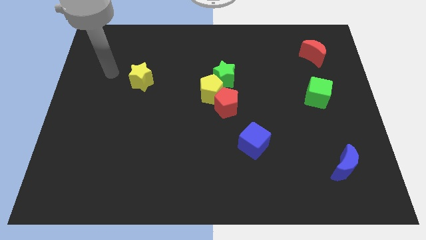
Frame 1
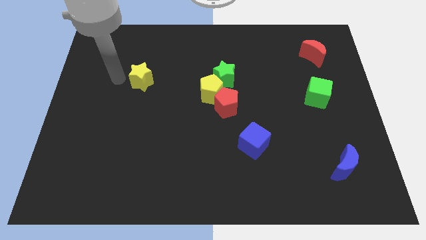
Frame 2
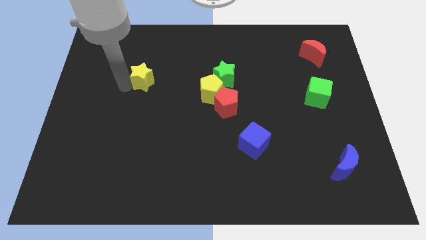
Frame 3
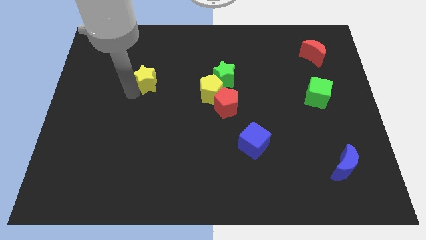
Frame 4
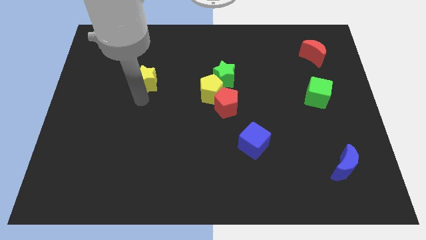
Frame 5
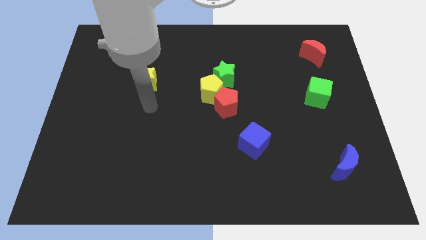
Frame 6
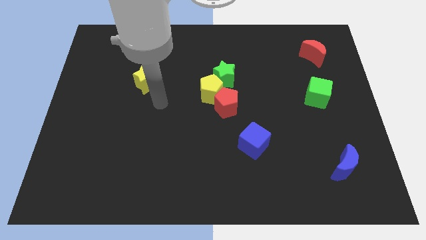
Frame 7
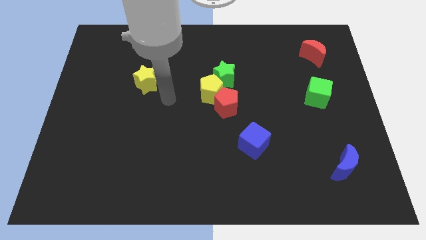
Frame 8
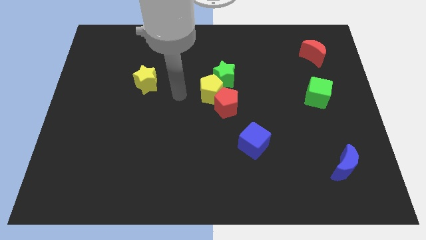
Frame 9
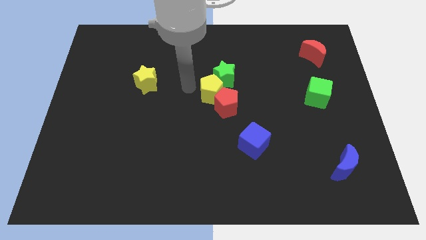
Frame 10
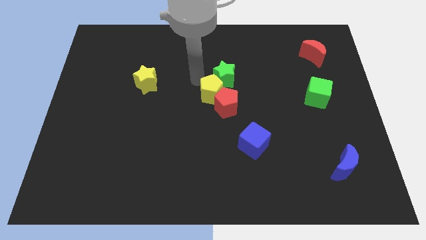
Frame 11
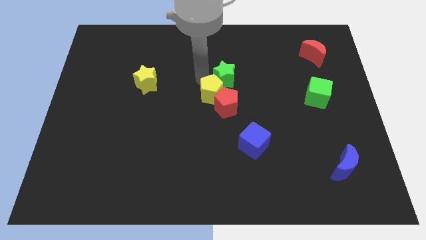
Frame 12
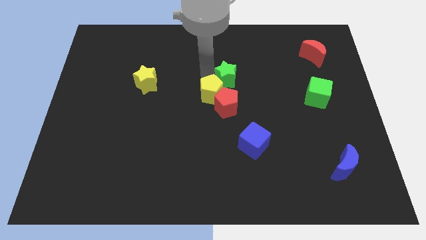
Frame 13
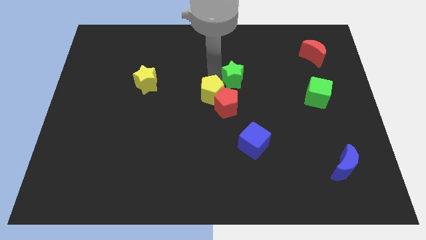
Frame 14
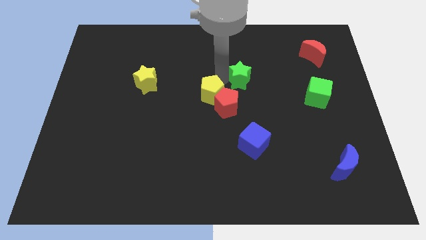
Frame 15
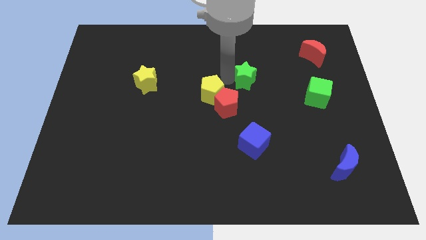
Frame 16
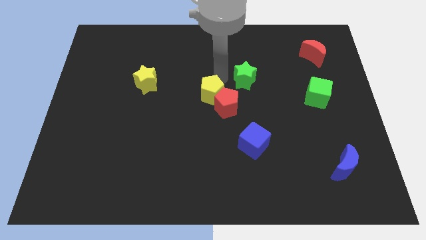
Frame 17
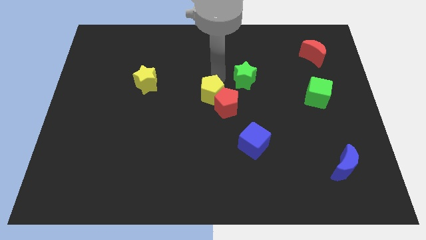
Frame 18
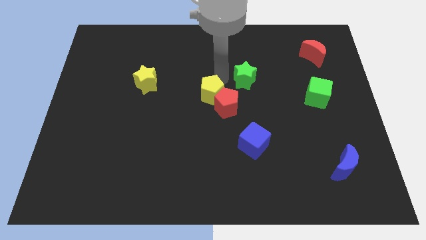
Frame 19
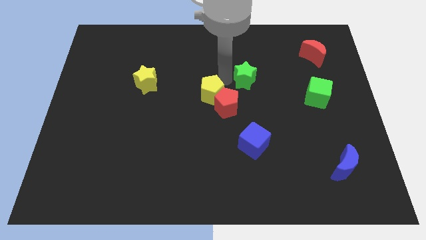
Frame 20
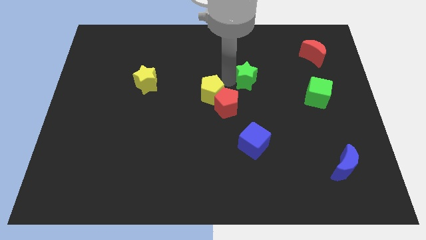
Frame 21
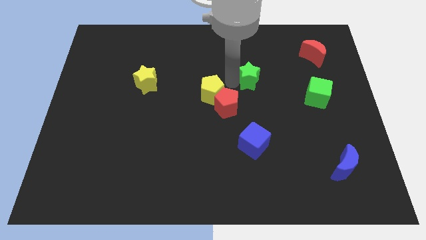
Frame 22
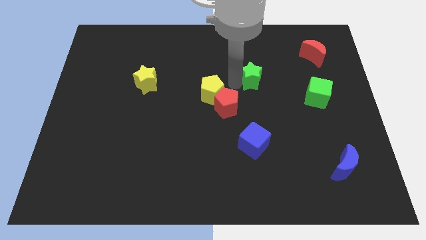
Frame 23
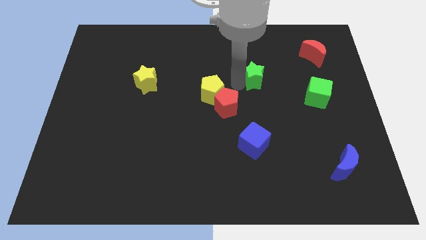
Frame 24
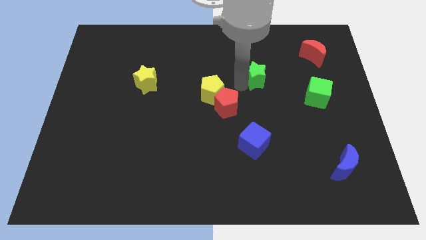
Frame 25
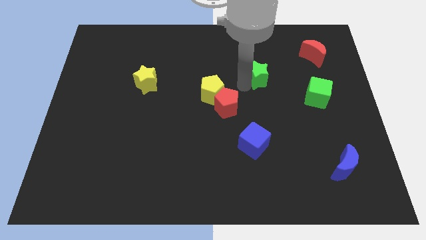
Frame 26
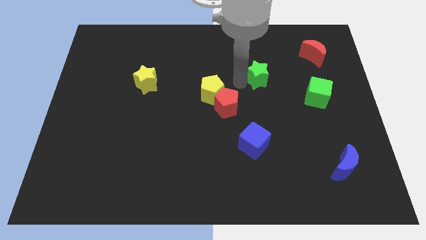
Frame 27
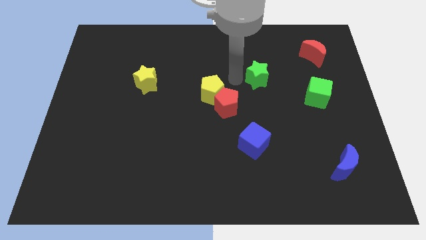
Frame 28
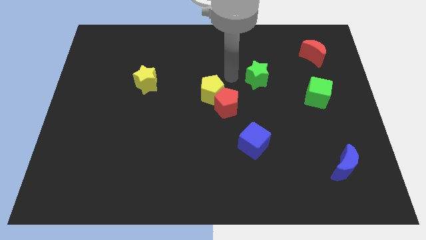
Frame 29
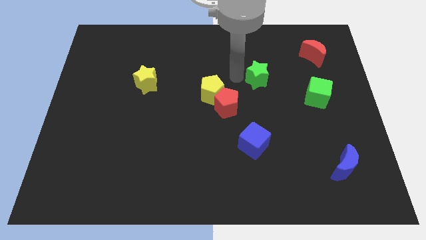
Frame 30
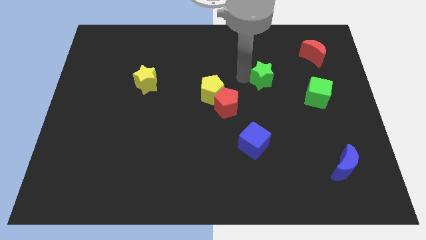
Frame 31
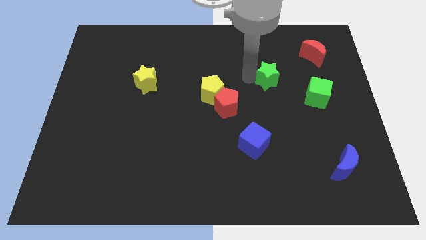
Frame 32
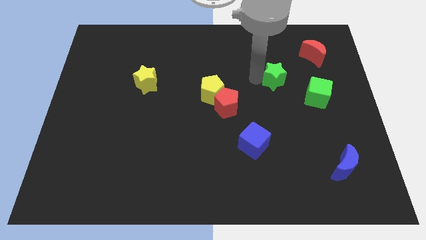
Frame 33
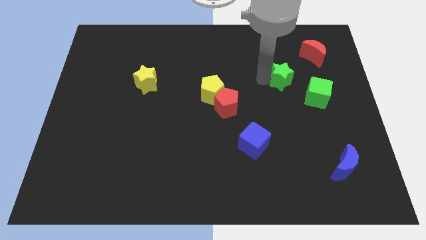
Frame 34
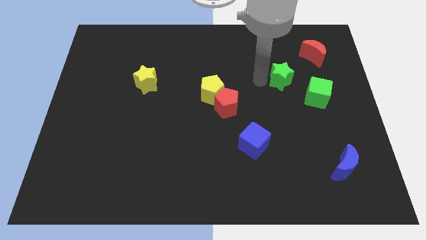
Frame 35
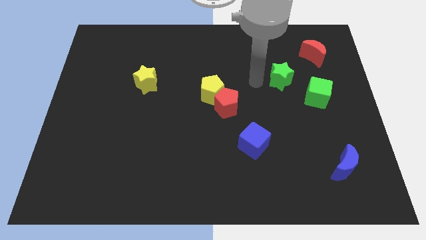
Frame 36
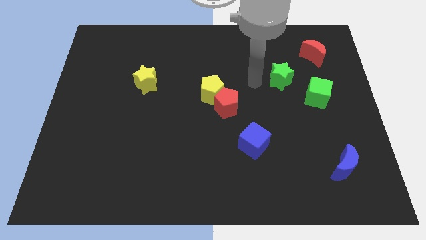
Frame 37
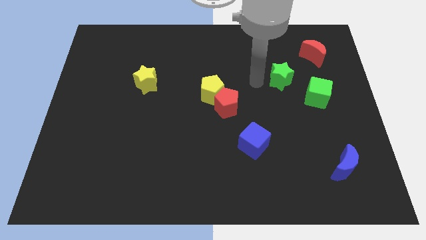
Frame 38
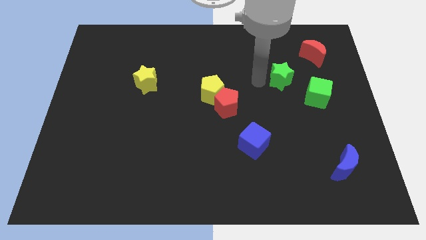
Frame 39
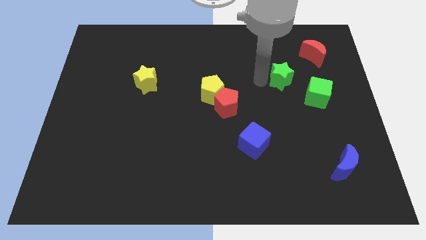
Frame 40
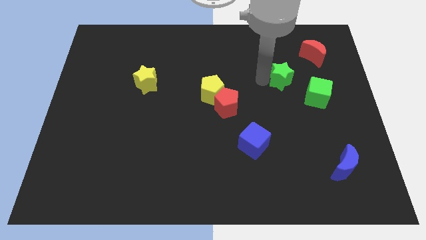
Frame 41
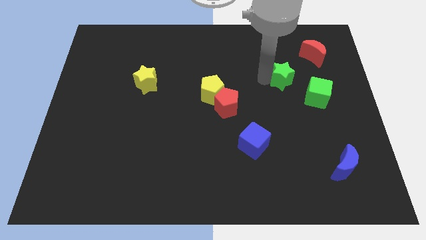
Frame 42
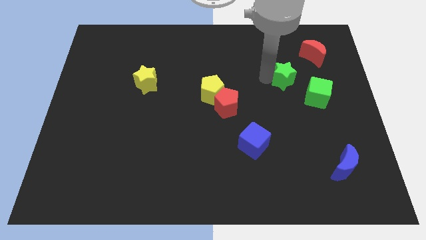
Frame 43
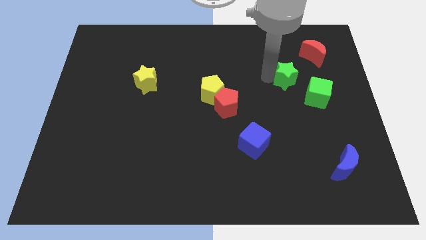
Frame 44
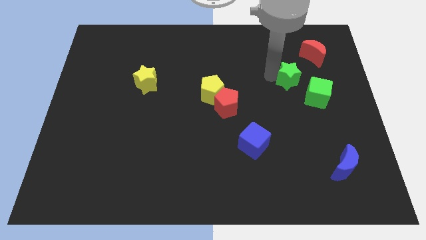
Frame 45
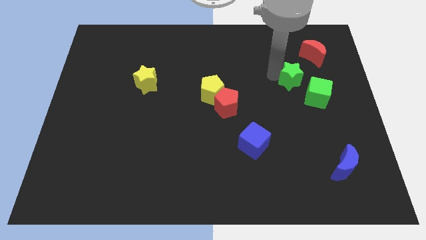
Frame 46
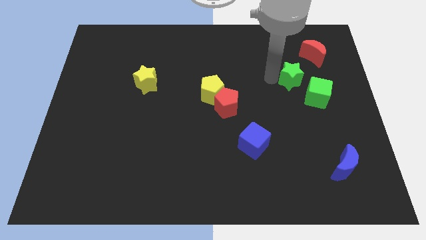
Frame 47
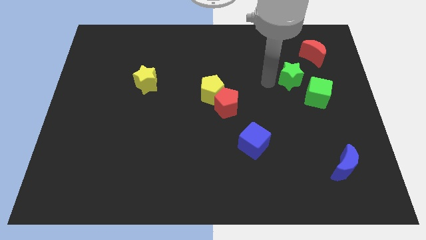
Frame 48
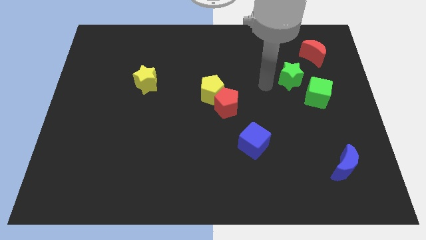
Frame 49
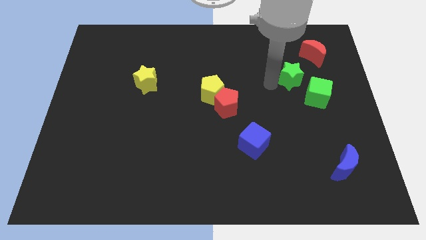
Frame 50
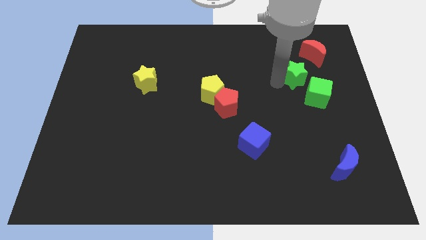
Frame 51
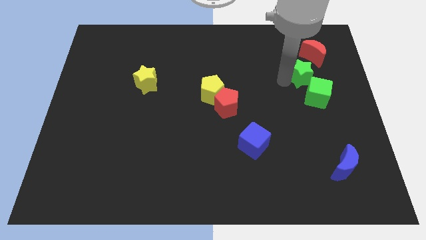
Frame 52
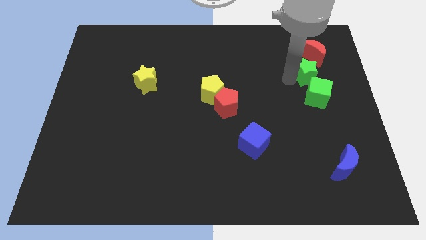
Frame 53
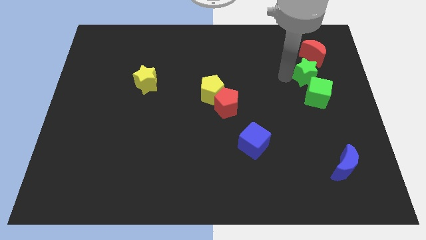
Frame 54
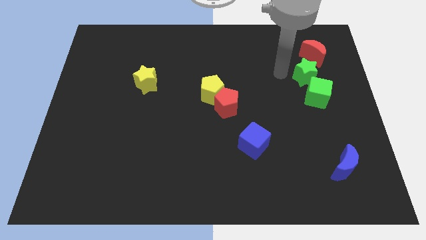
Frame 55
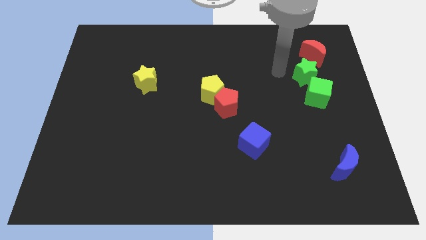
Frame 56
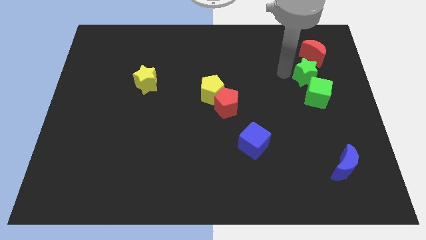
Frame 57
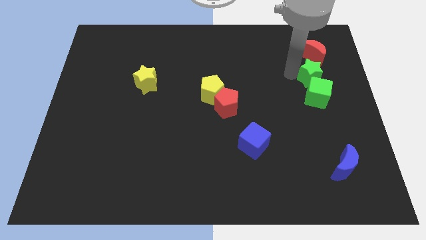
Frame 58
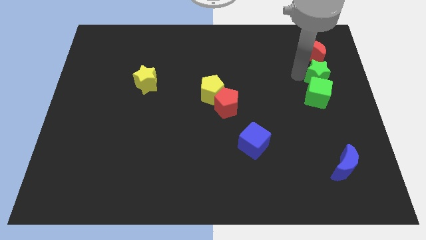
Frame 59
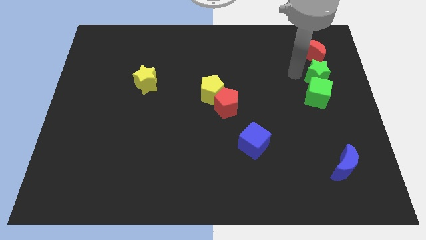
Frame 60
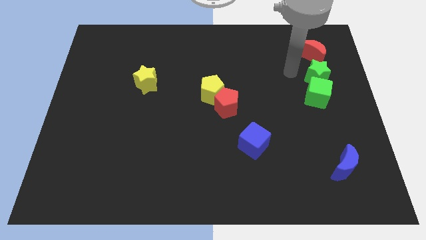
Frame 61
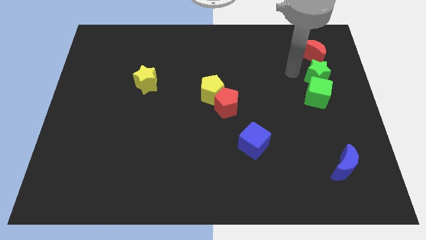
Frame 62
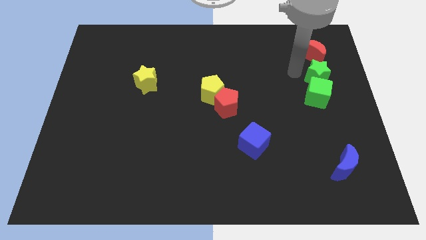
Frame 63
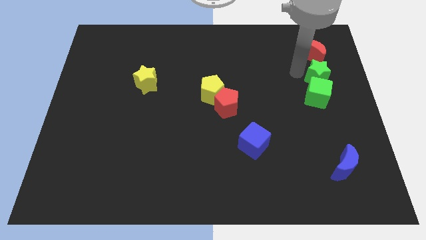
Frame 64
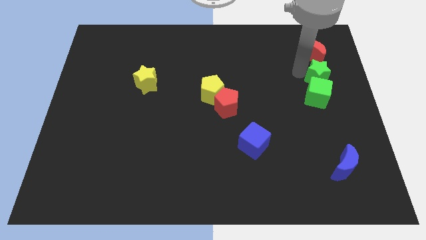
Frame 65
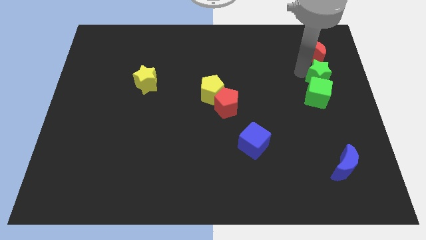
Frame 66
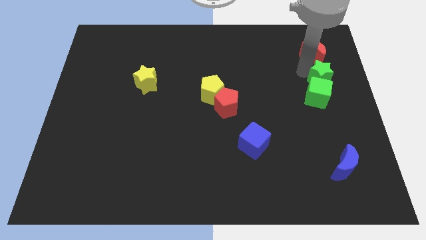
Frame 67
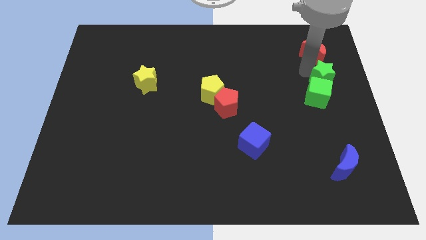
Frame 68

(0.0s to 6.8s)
push the green star to the center right

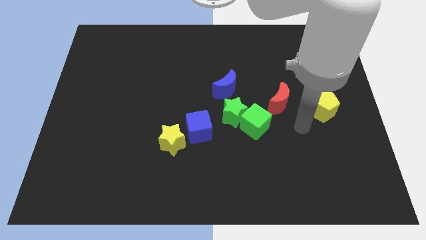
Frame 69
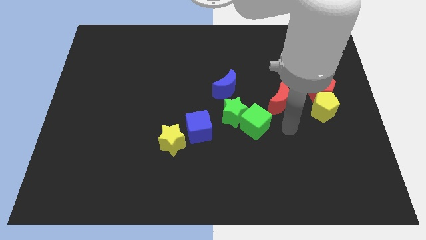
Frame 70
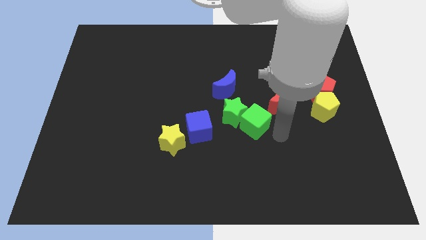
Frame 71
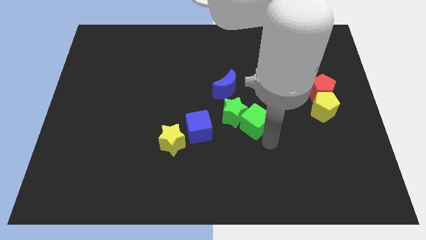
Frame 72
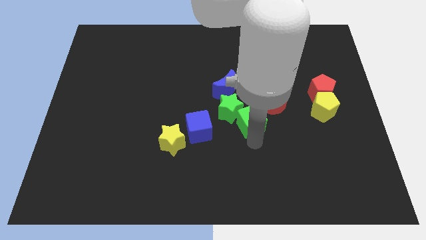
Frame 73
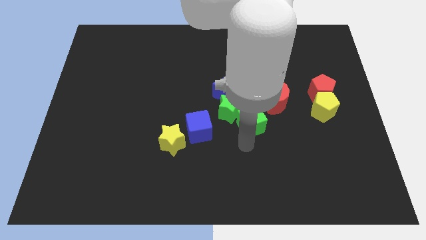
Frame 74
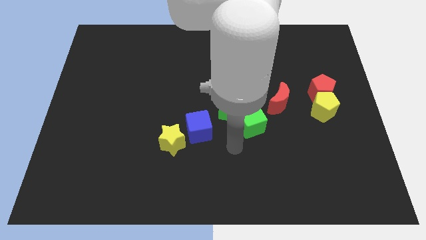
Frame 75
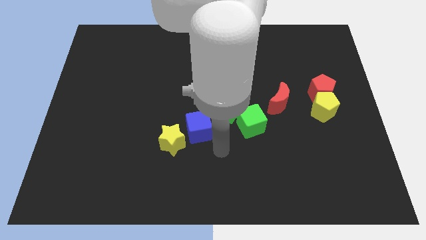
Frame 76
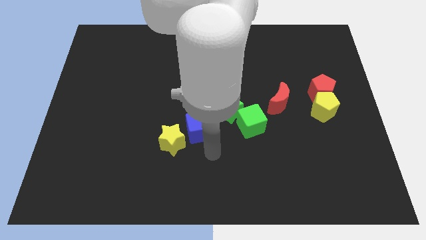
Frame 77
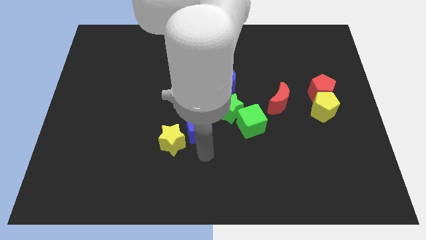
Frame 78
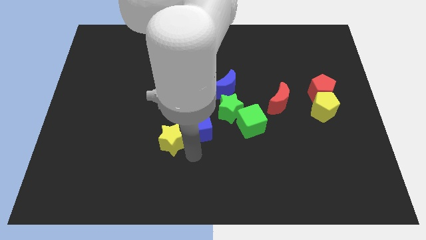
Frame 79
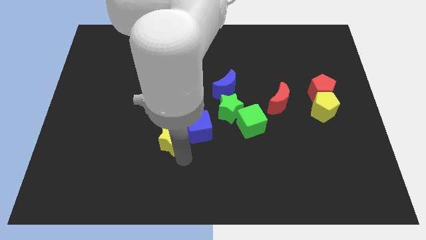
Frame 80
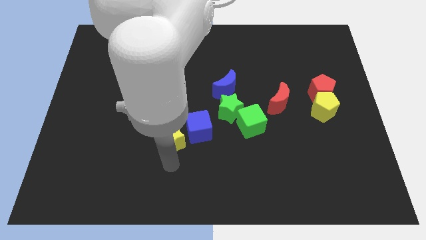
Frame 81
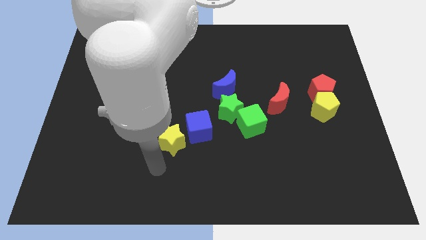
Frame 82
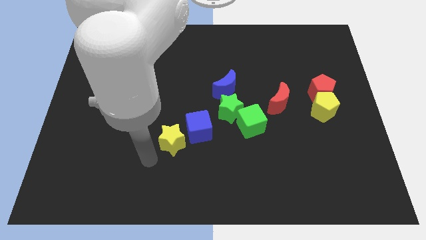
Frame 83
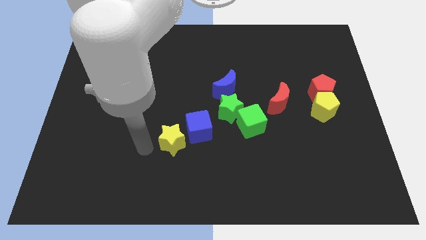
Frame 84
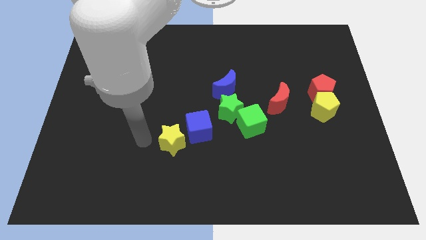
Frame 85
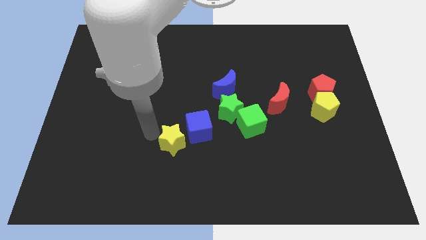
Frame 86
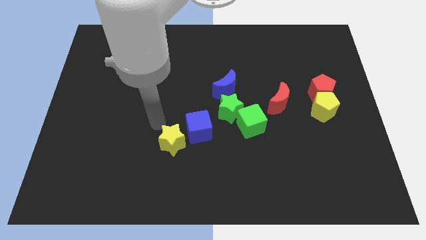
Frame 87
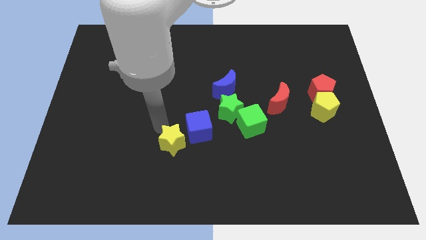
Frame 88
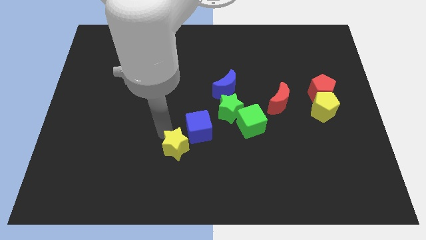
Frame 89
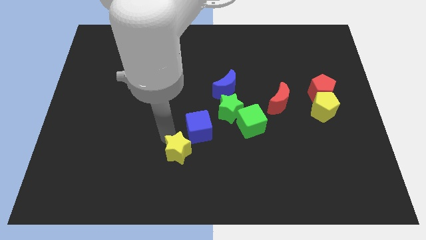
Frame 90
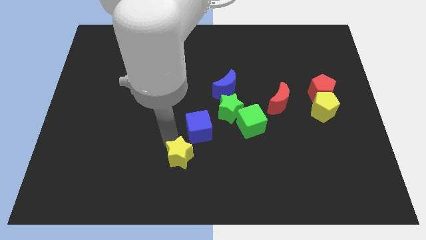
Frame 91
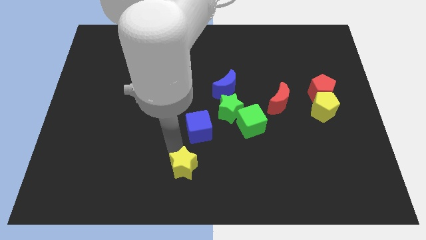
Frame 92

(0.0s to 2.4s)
slide the yellow star to the bottom side
